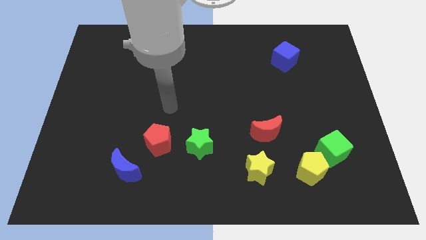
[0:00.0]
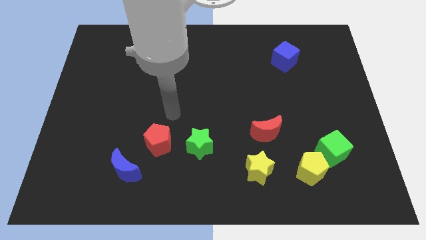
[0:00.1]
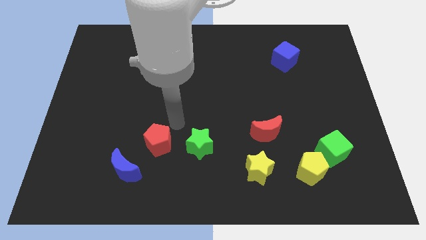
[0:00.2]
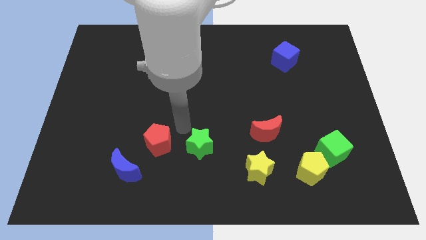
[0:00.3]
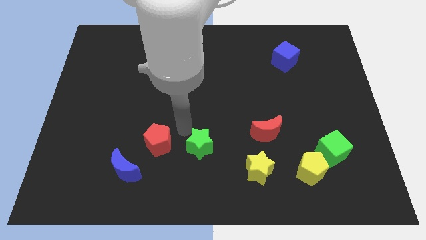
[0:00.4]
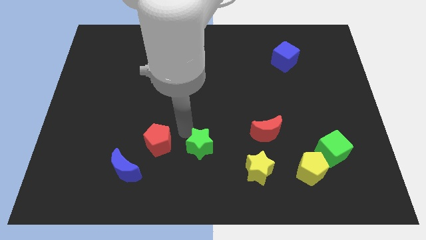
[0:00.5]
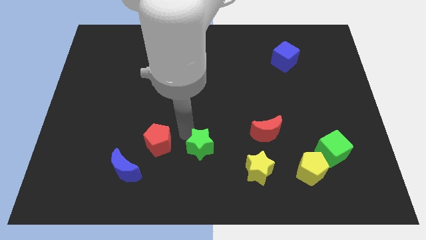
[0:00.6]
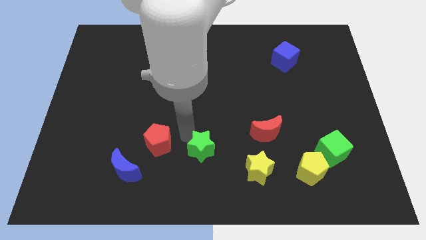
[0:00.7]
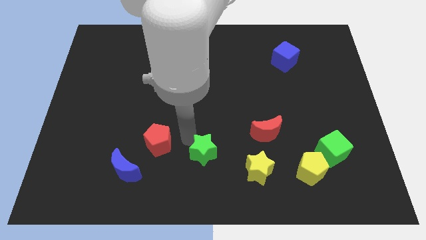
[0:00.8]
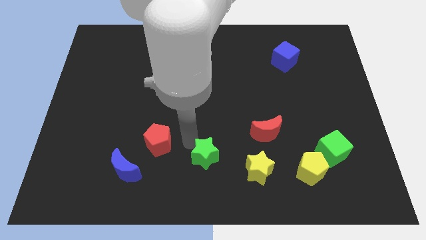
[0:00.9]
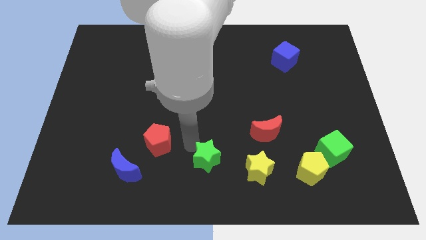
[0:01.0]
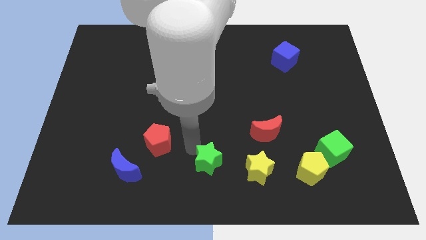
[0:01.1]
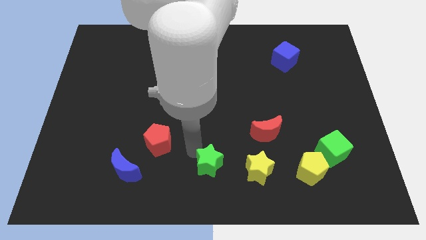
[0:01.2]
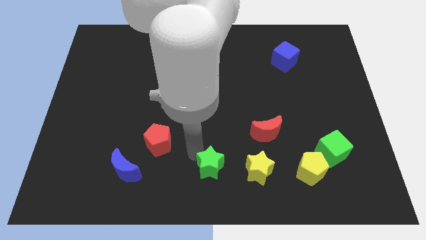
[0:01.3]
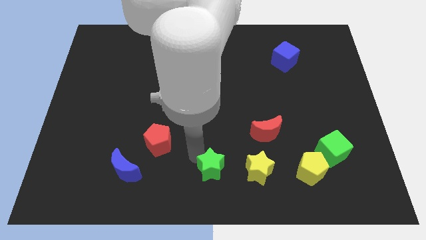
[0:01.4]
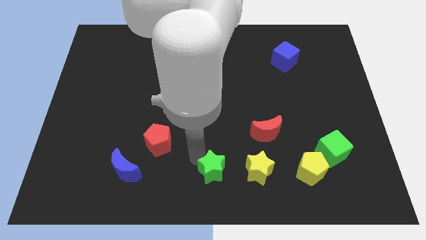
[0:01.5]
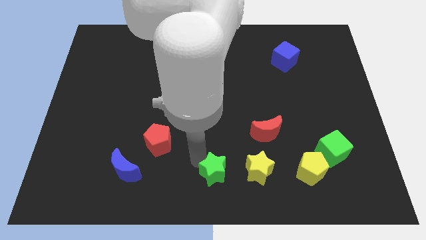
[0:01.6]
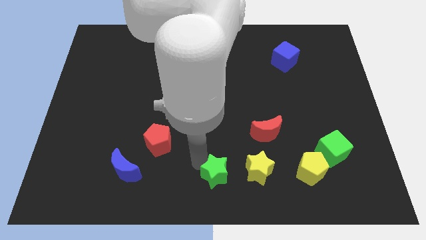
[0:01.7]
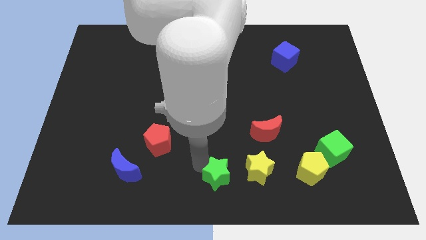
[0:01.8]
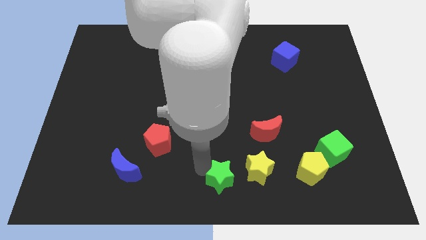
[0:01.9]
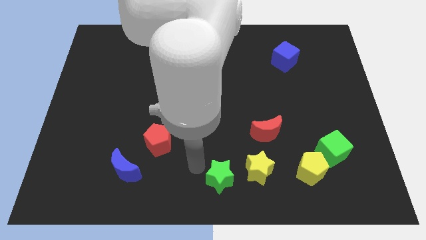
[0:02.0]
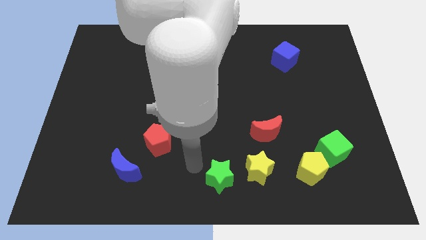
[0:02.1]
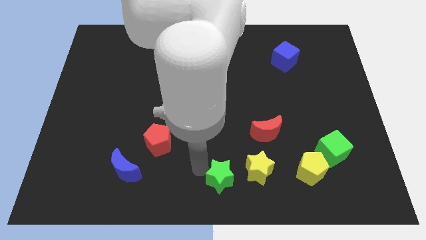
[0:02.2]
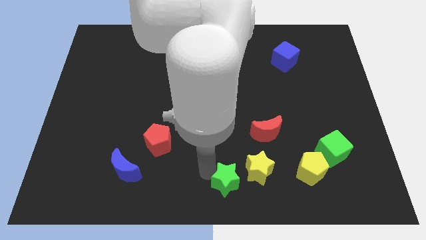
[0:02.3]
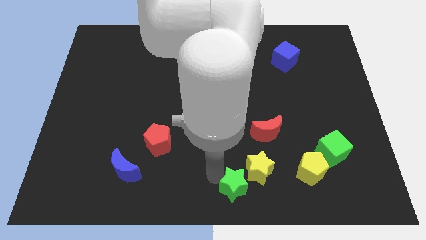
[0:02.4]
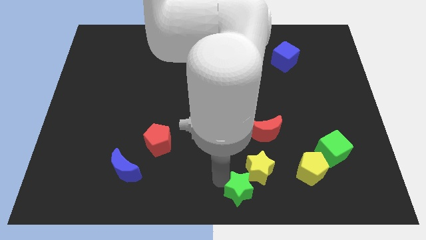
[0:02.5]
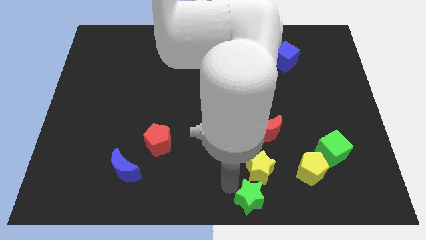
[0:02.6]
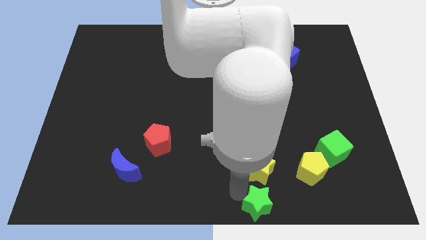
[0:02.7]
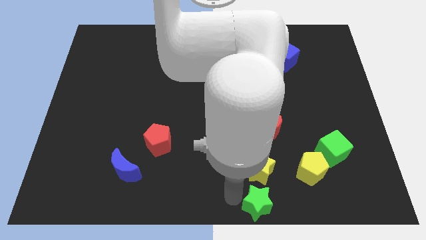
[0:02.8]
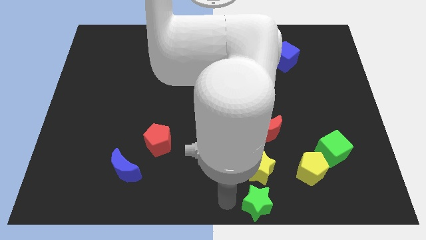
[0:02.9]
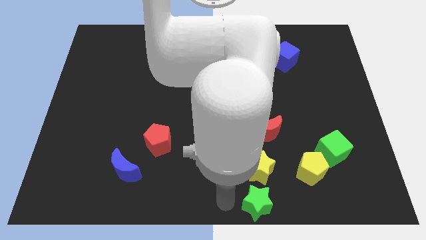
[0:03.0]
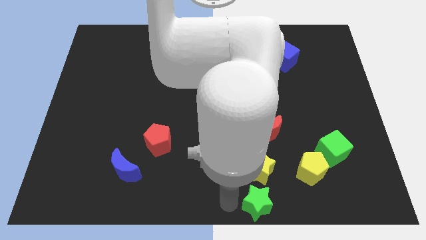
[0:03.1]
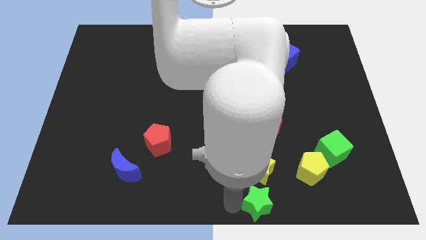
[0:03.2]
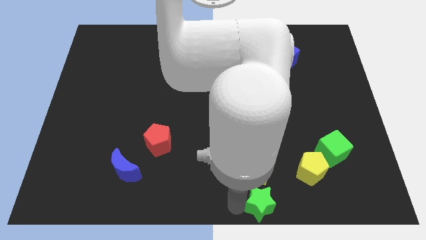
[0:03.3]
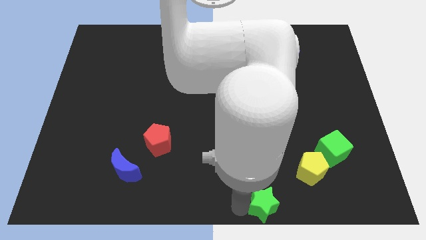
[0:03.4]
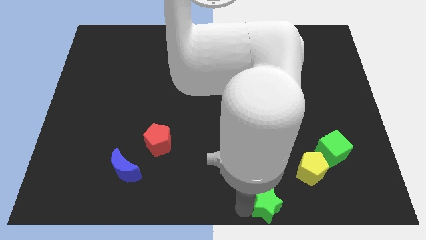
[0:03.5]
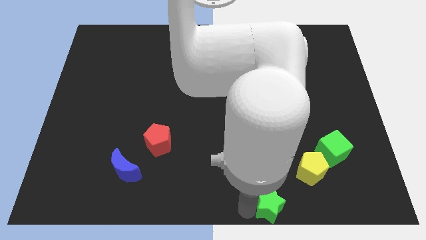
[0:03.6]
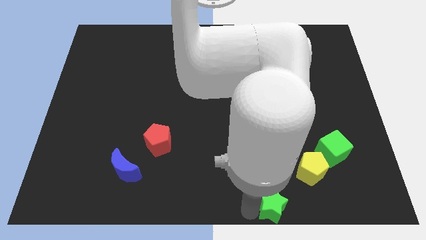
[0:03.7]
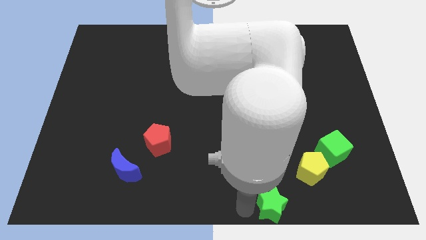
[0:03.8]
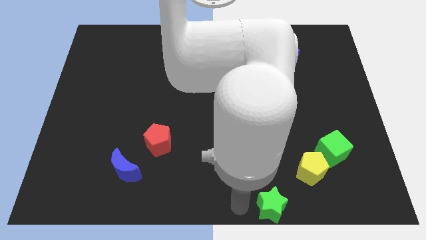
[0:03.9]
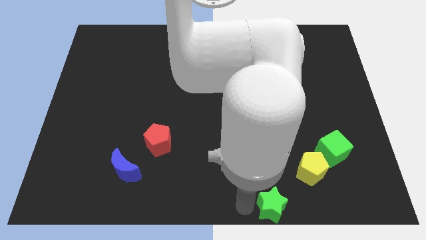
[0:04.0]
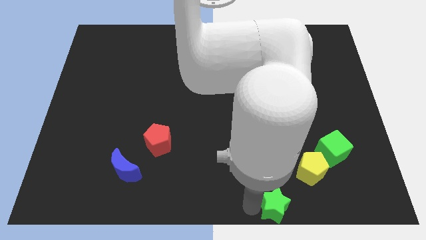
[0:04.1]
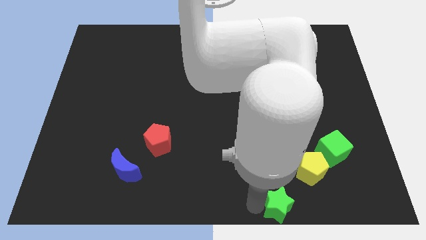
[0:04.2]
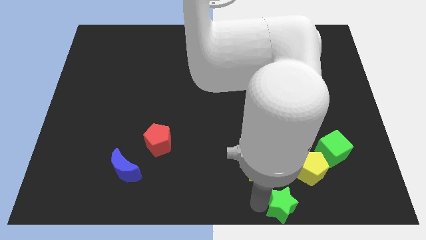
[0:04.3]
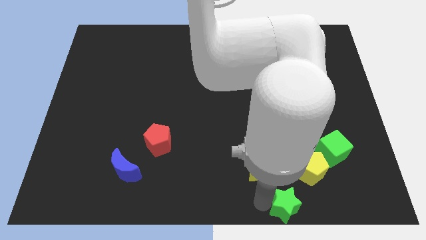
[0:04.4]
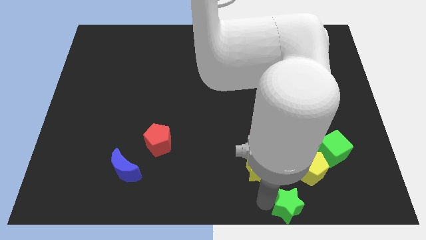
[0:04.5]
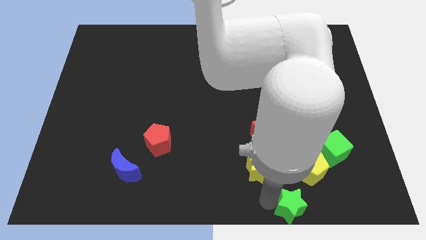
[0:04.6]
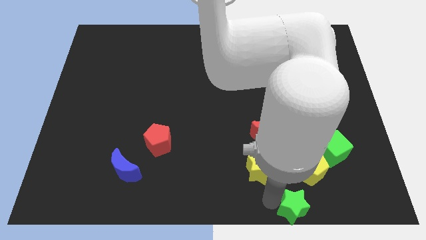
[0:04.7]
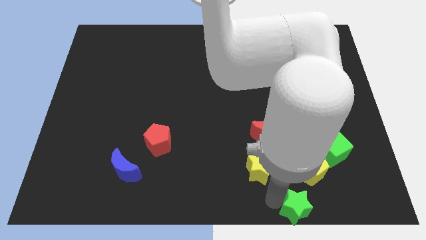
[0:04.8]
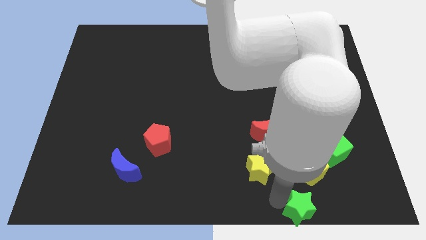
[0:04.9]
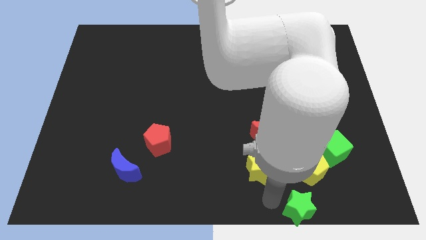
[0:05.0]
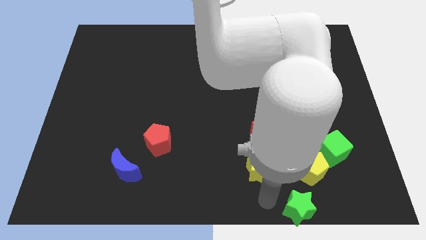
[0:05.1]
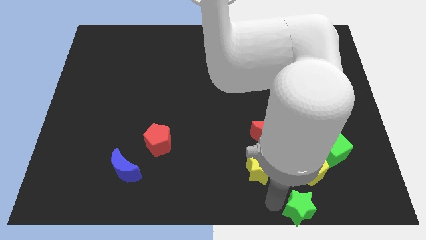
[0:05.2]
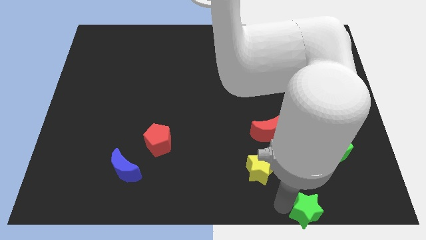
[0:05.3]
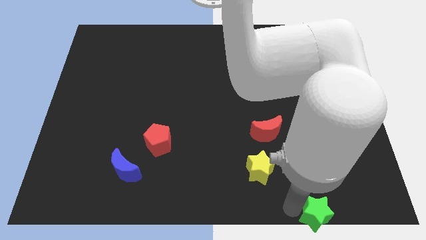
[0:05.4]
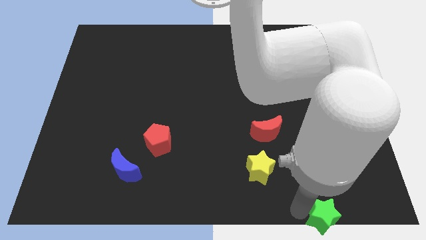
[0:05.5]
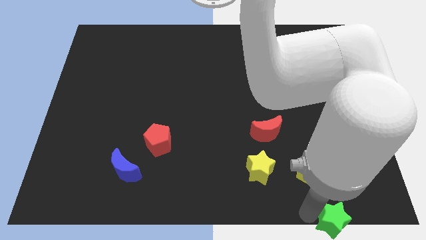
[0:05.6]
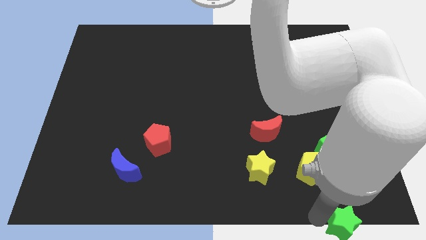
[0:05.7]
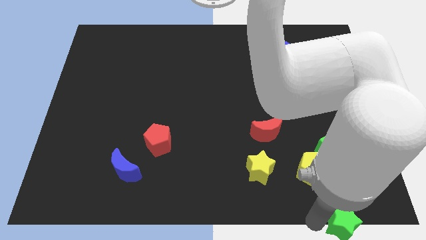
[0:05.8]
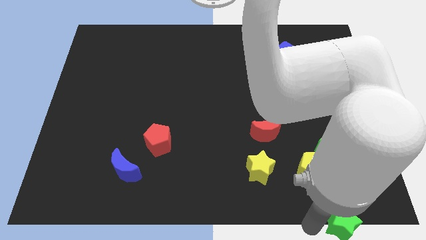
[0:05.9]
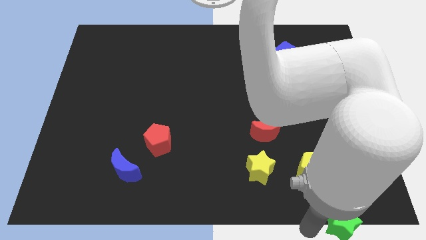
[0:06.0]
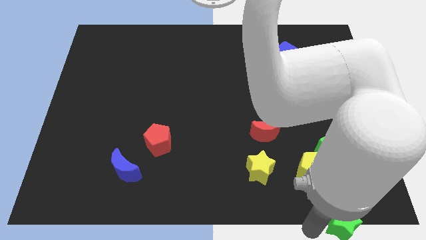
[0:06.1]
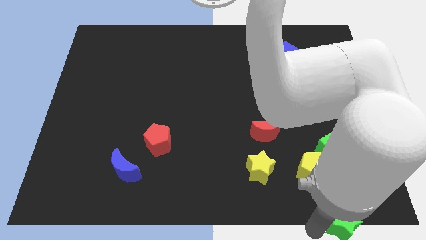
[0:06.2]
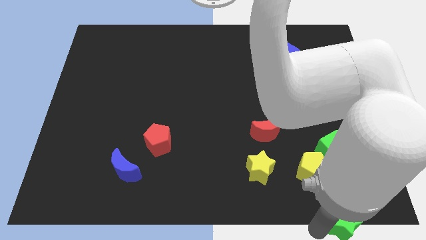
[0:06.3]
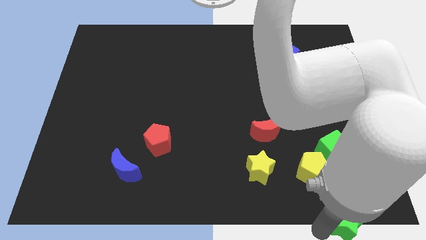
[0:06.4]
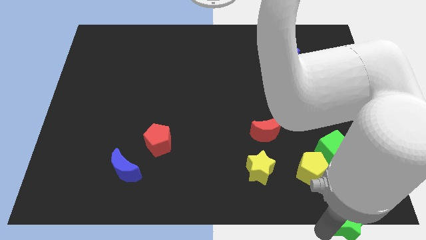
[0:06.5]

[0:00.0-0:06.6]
put the green star to the bottom right corner

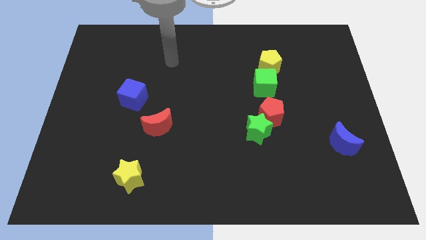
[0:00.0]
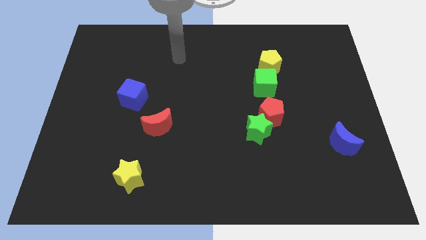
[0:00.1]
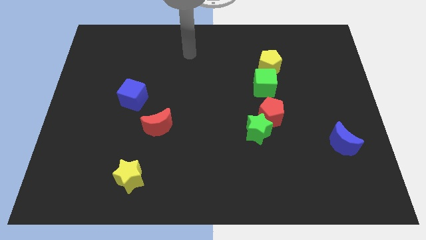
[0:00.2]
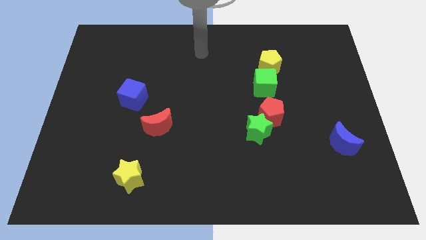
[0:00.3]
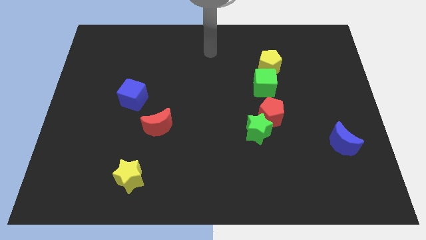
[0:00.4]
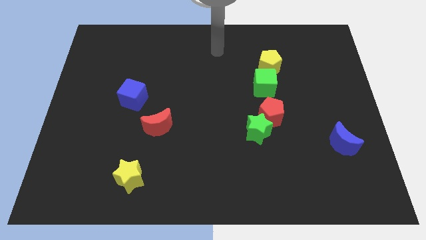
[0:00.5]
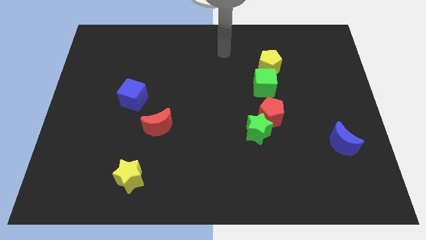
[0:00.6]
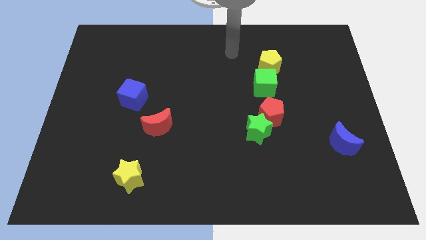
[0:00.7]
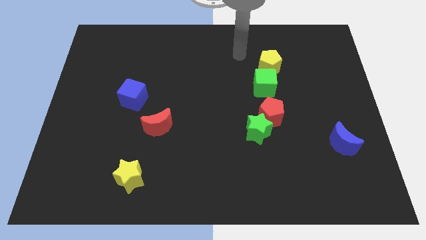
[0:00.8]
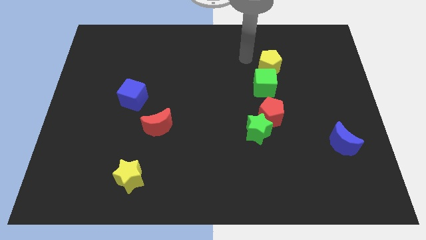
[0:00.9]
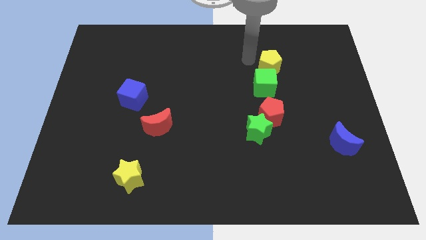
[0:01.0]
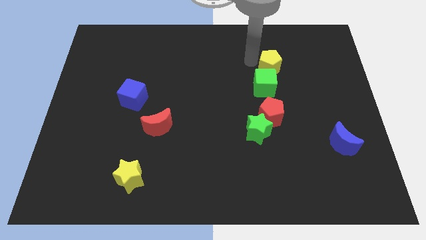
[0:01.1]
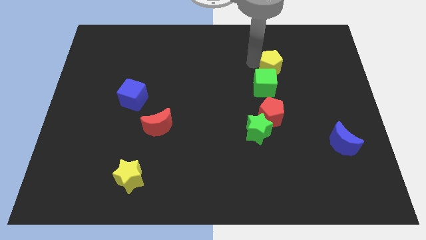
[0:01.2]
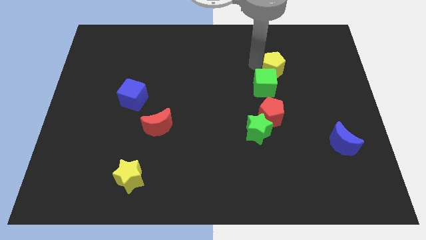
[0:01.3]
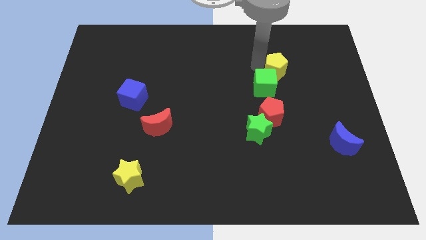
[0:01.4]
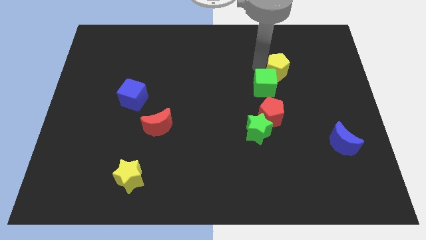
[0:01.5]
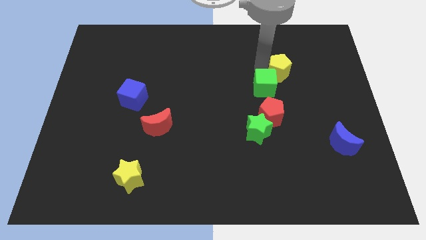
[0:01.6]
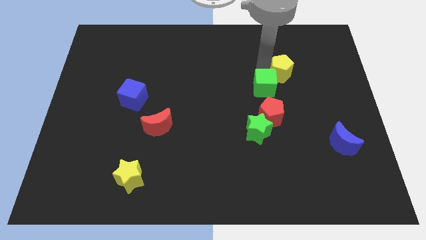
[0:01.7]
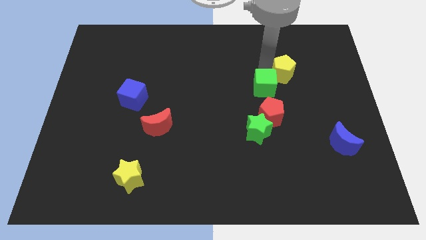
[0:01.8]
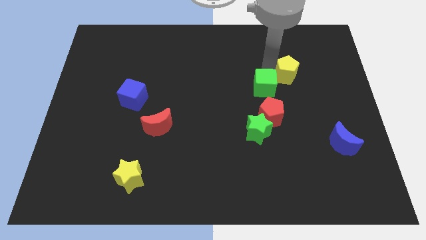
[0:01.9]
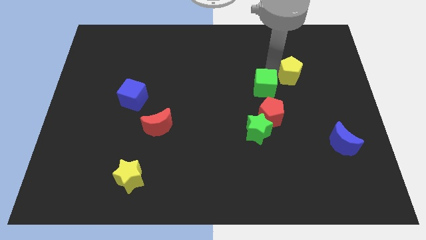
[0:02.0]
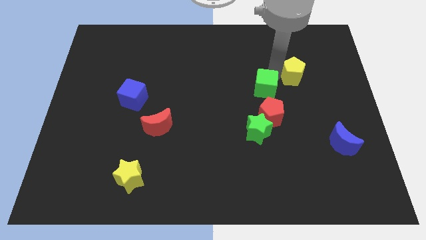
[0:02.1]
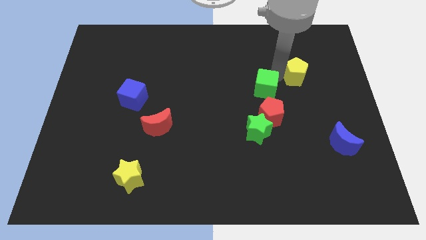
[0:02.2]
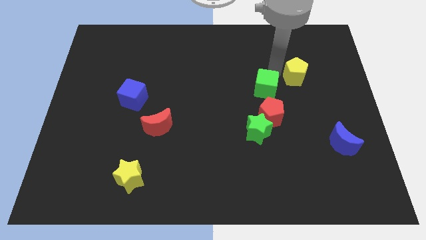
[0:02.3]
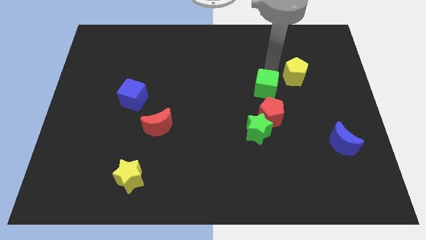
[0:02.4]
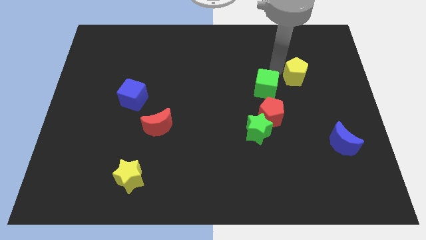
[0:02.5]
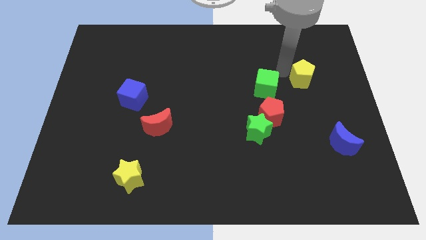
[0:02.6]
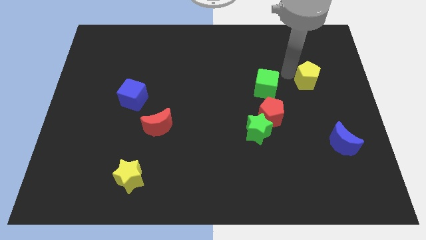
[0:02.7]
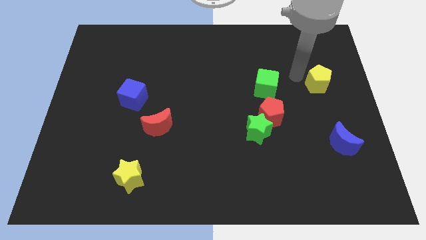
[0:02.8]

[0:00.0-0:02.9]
slide the yellow pentagon to the right side
